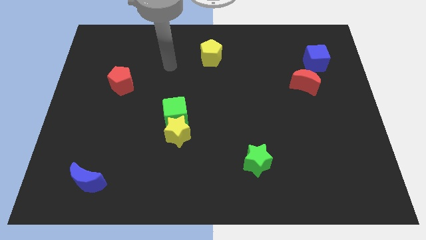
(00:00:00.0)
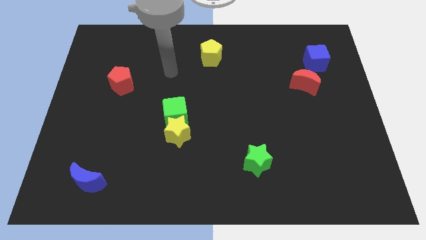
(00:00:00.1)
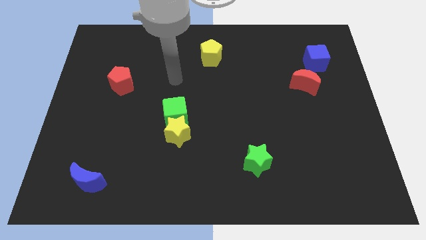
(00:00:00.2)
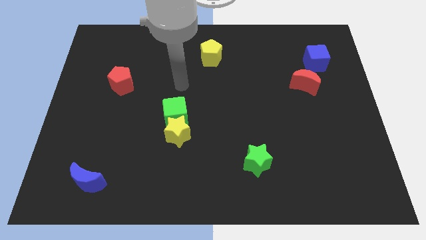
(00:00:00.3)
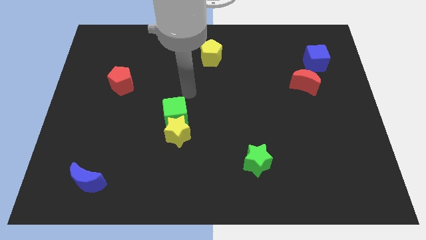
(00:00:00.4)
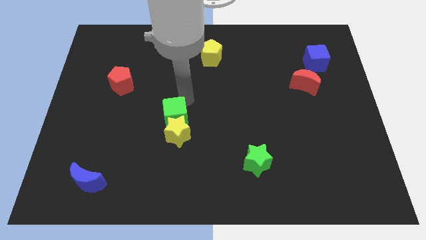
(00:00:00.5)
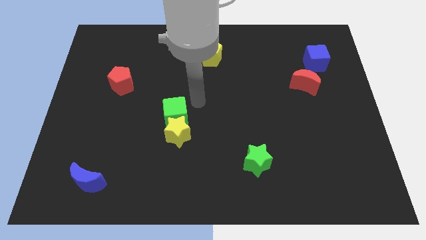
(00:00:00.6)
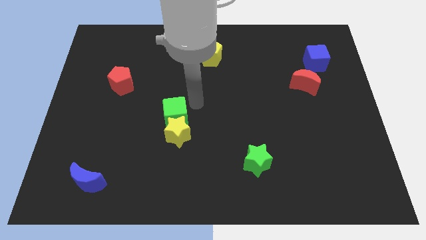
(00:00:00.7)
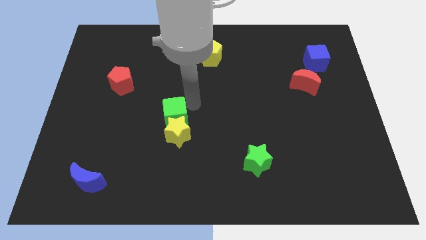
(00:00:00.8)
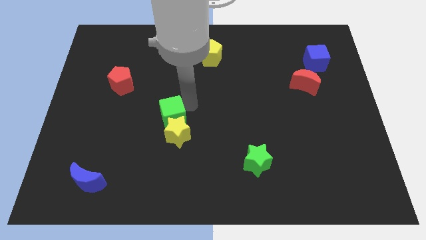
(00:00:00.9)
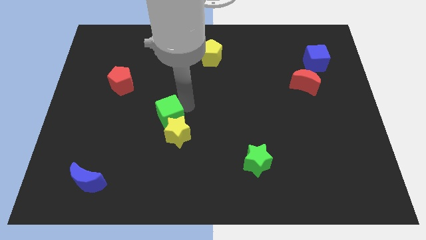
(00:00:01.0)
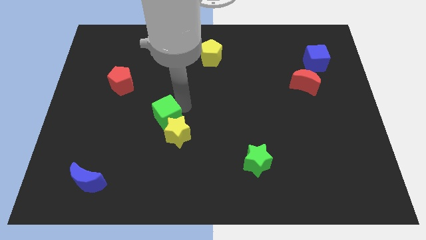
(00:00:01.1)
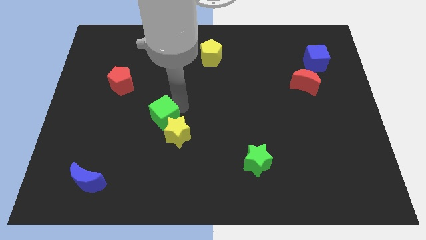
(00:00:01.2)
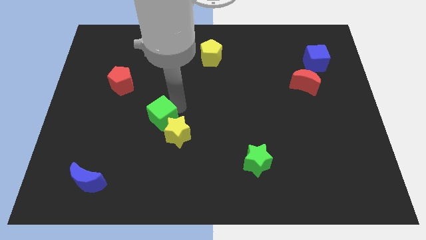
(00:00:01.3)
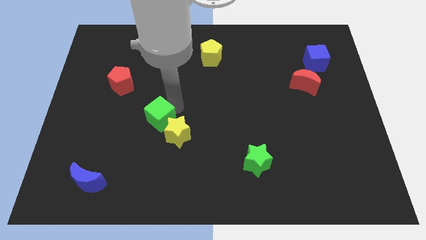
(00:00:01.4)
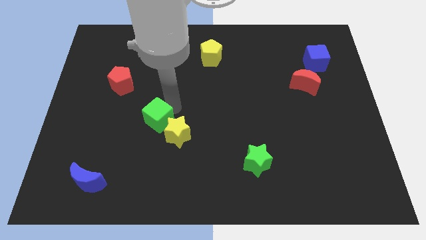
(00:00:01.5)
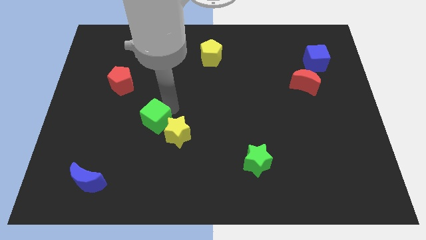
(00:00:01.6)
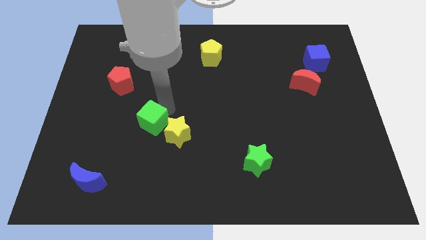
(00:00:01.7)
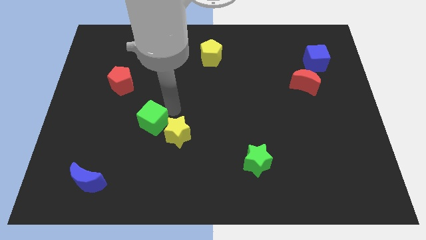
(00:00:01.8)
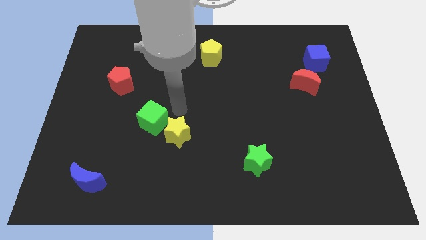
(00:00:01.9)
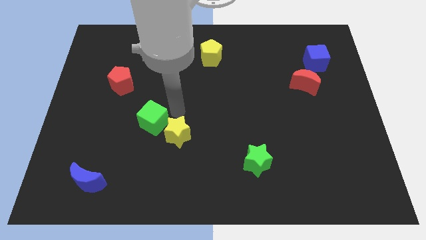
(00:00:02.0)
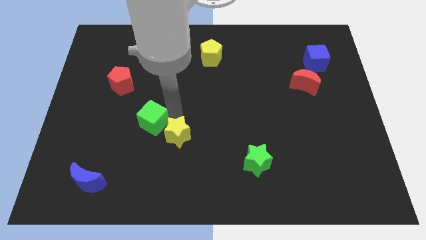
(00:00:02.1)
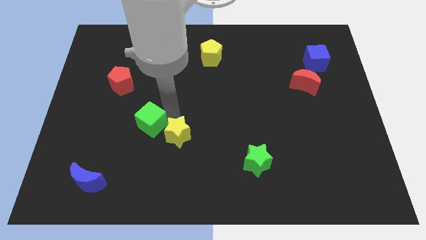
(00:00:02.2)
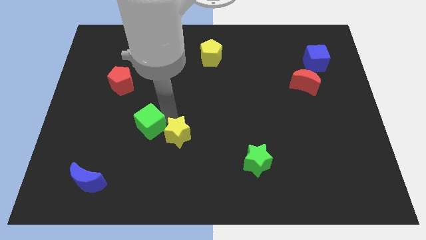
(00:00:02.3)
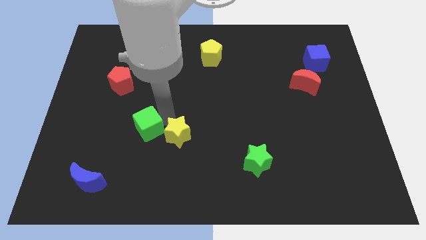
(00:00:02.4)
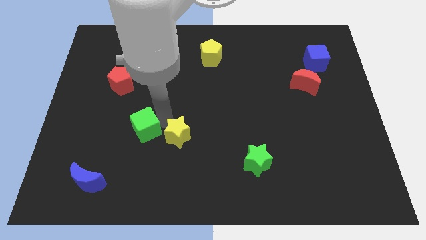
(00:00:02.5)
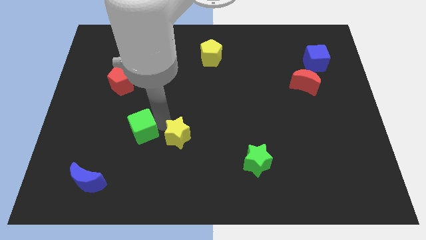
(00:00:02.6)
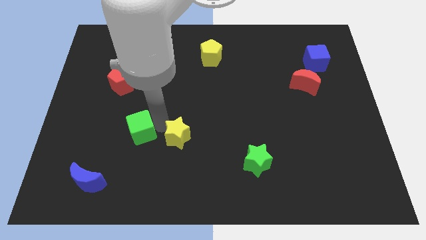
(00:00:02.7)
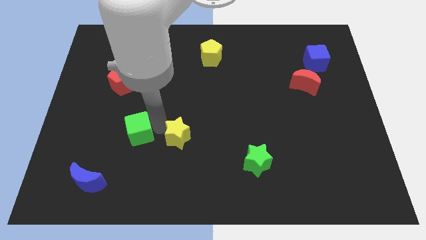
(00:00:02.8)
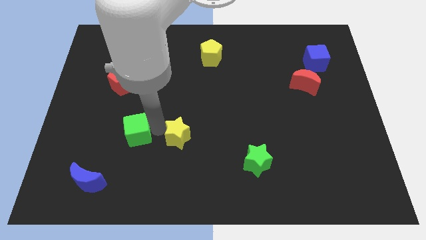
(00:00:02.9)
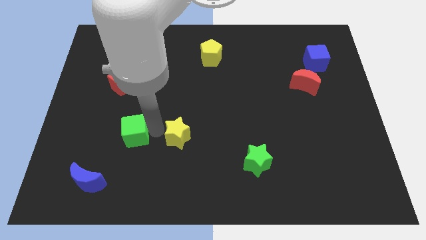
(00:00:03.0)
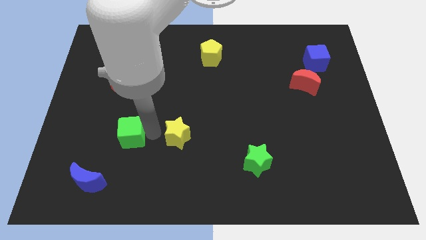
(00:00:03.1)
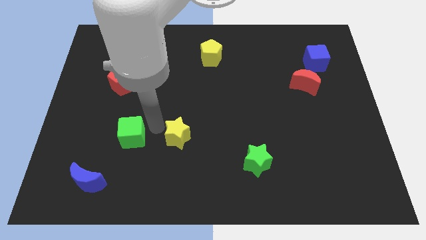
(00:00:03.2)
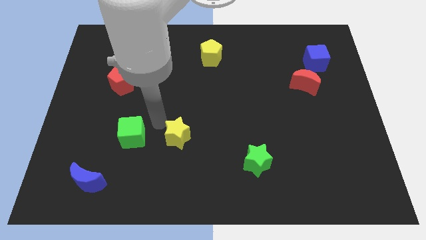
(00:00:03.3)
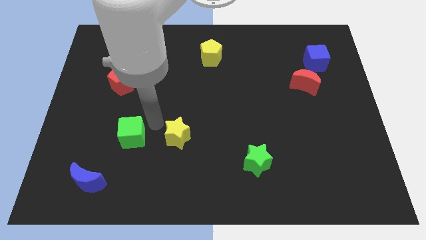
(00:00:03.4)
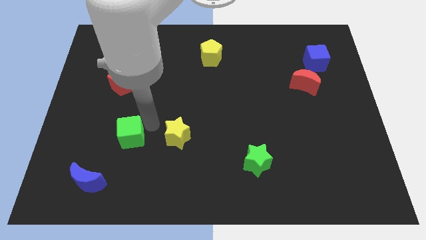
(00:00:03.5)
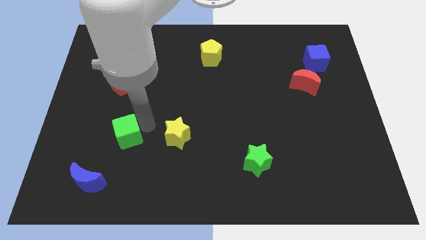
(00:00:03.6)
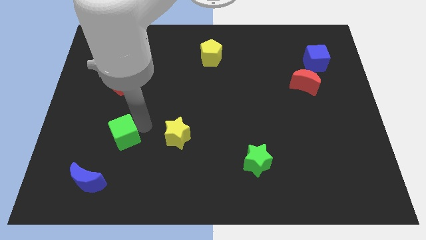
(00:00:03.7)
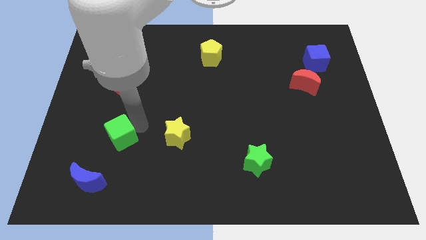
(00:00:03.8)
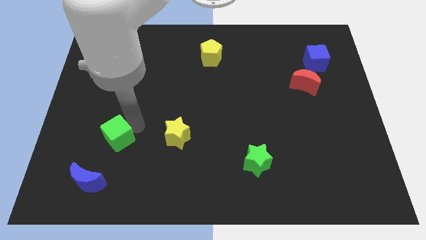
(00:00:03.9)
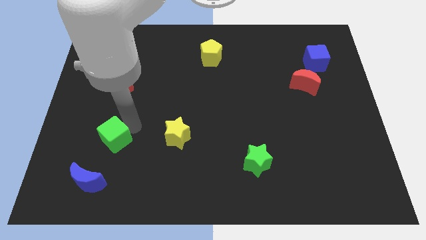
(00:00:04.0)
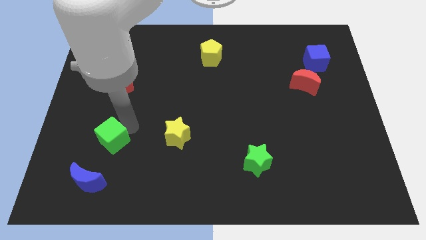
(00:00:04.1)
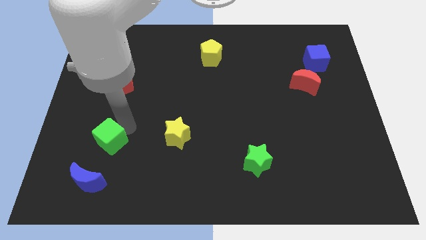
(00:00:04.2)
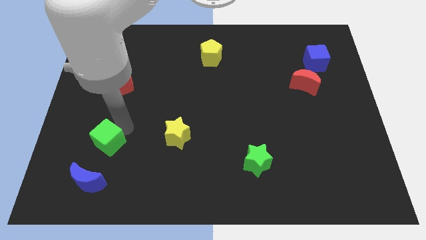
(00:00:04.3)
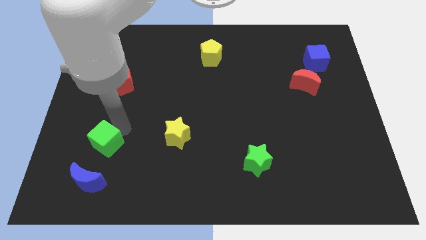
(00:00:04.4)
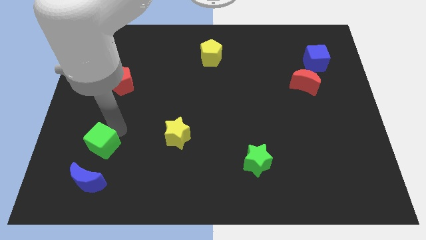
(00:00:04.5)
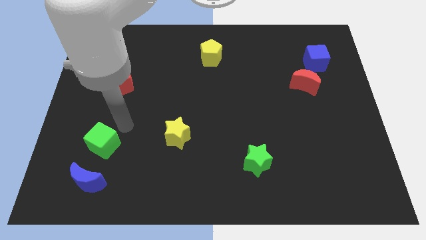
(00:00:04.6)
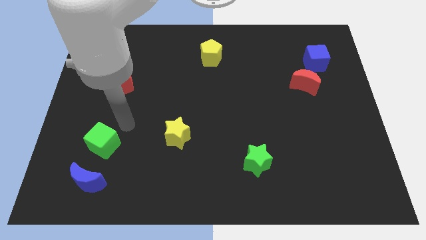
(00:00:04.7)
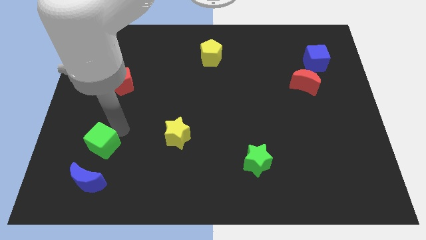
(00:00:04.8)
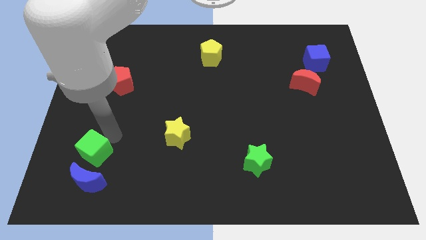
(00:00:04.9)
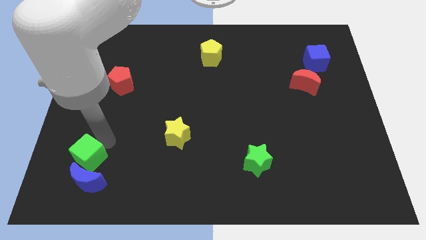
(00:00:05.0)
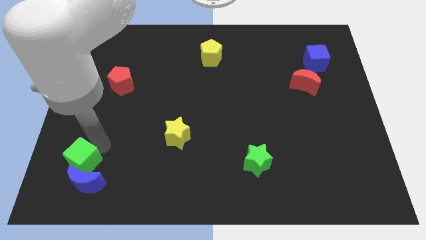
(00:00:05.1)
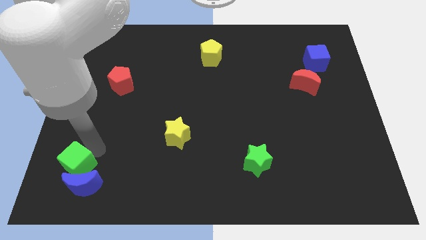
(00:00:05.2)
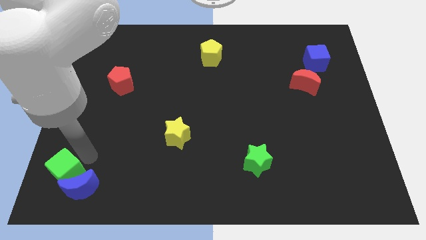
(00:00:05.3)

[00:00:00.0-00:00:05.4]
push the green cube to the bottom left corner

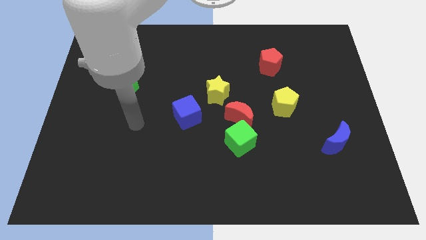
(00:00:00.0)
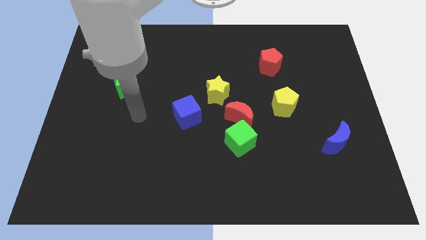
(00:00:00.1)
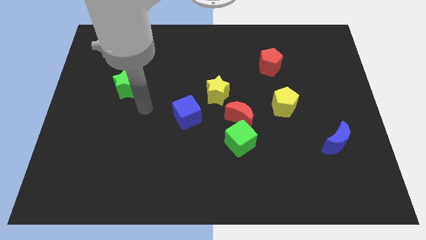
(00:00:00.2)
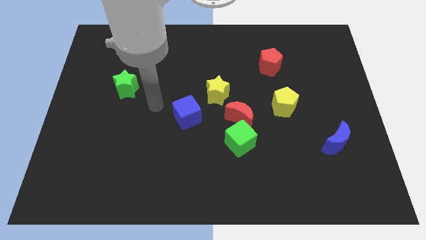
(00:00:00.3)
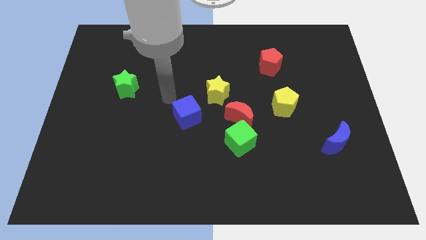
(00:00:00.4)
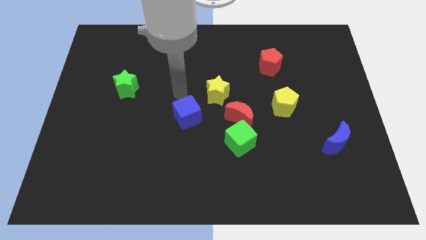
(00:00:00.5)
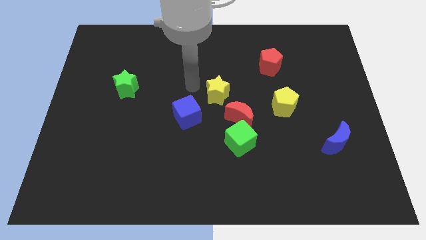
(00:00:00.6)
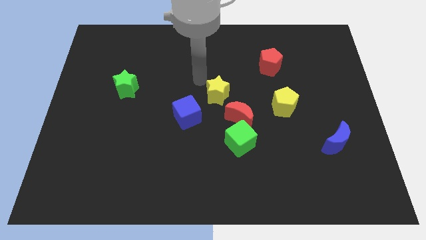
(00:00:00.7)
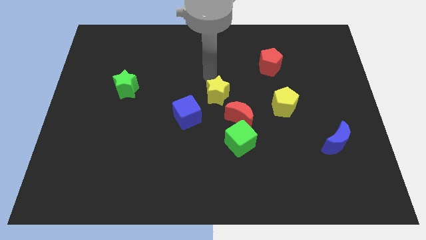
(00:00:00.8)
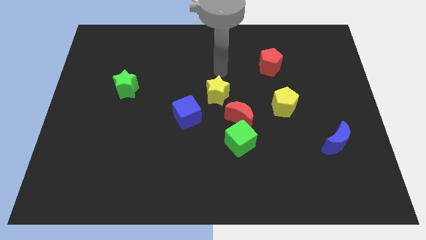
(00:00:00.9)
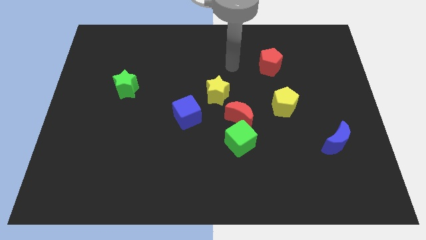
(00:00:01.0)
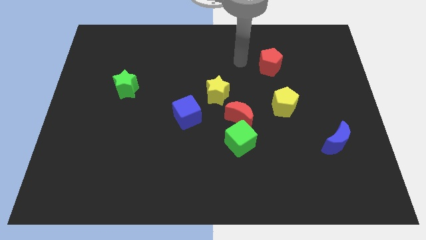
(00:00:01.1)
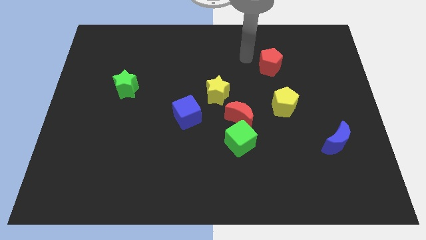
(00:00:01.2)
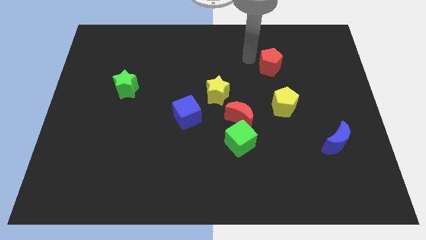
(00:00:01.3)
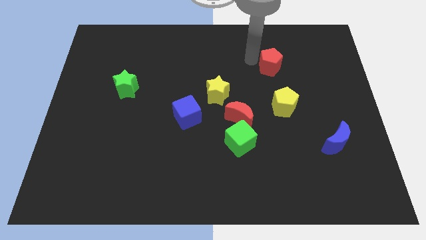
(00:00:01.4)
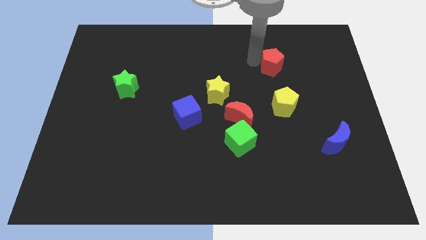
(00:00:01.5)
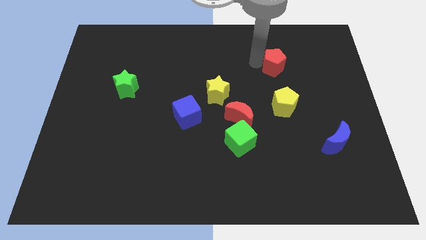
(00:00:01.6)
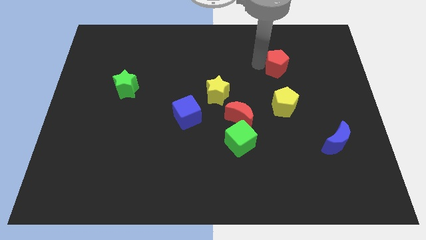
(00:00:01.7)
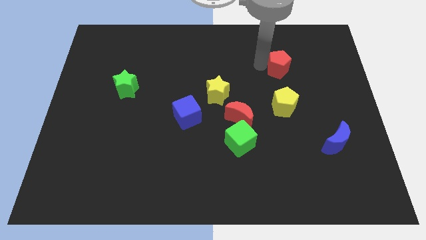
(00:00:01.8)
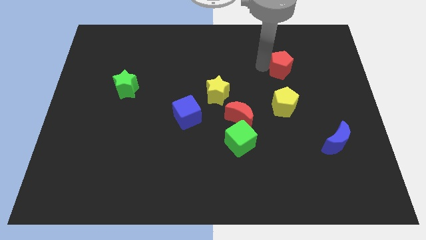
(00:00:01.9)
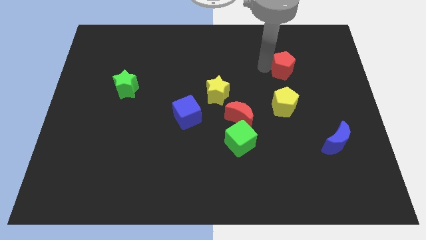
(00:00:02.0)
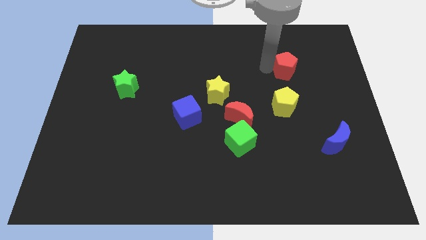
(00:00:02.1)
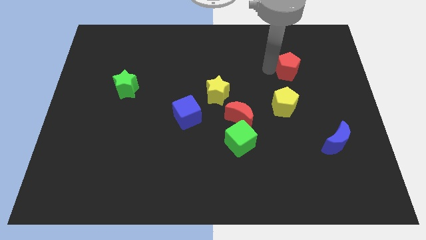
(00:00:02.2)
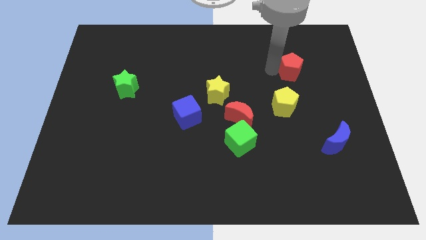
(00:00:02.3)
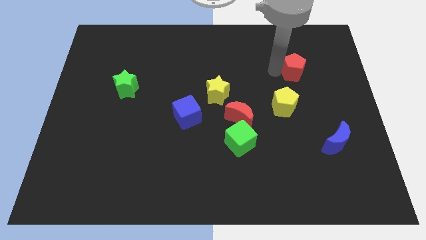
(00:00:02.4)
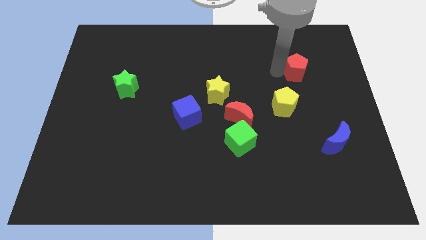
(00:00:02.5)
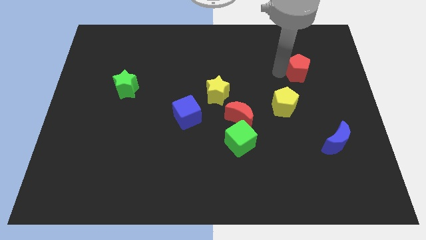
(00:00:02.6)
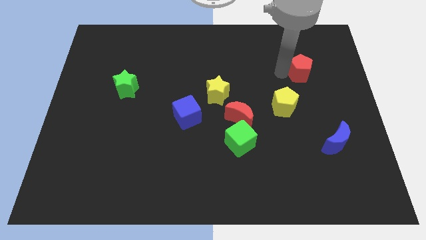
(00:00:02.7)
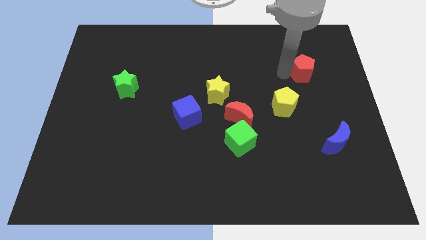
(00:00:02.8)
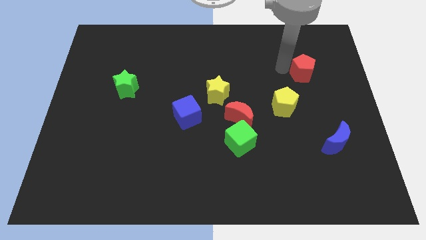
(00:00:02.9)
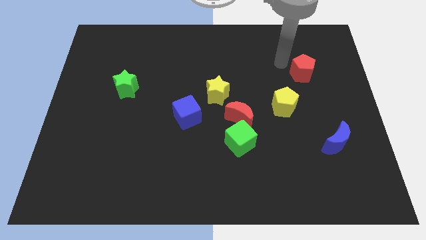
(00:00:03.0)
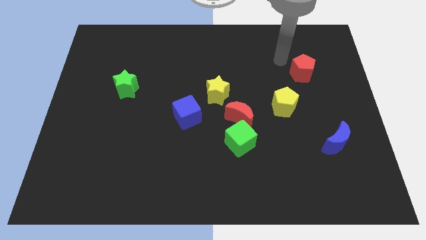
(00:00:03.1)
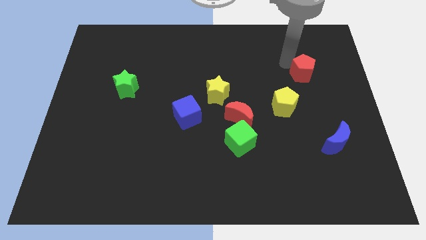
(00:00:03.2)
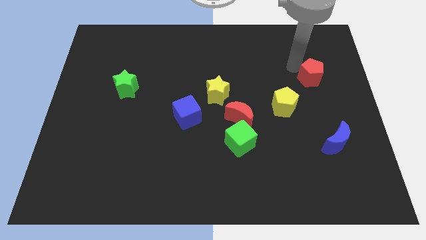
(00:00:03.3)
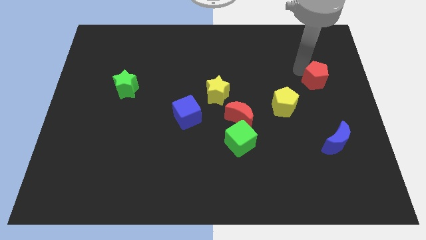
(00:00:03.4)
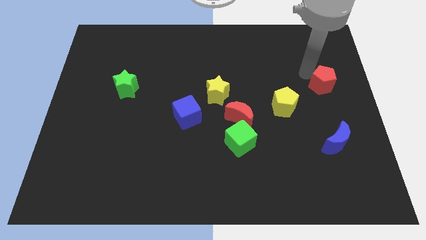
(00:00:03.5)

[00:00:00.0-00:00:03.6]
put the red pentagon to the right side of the board
